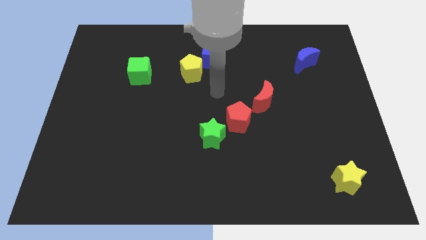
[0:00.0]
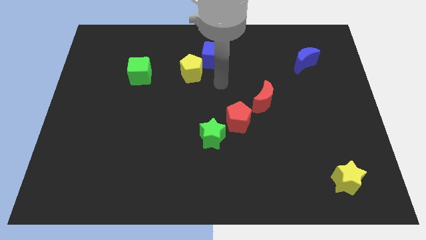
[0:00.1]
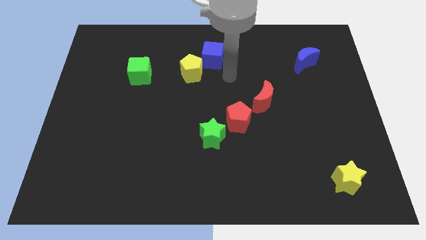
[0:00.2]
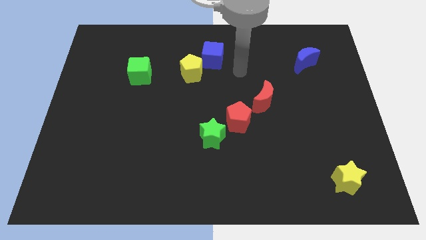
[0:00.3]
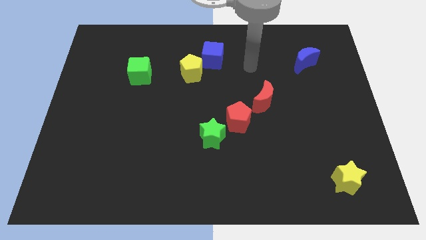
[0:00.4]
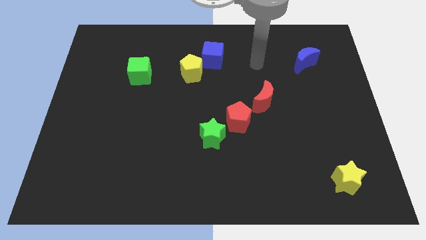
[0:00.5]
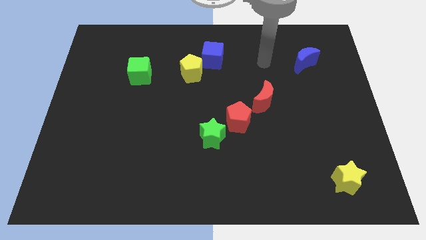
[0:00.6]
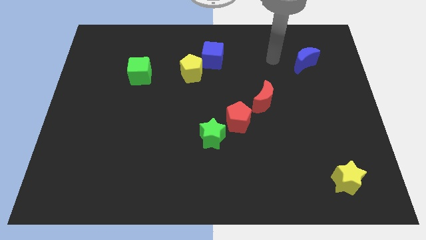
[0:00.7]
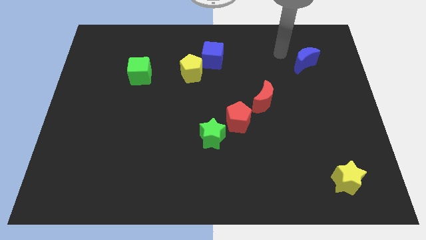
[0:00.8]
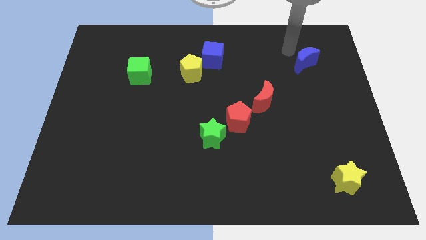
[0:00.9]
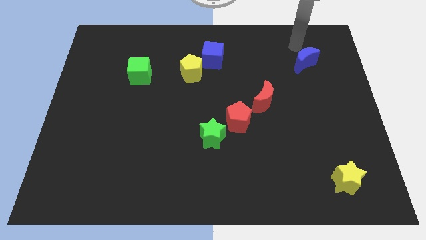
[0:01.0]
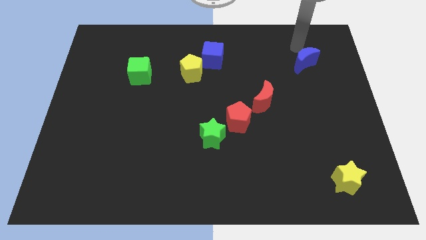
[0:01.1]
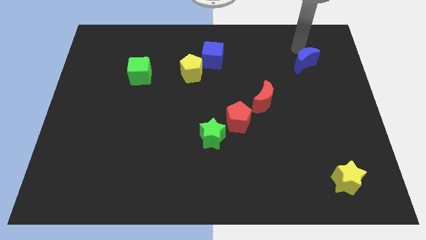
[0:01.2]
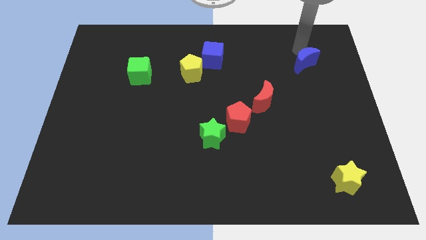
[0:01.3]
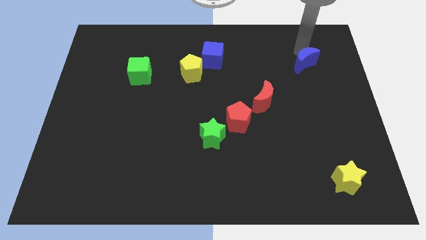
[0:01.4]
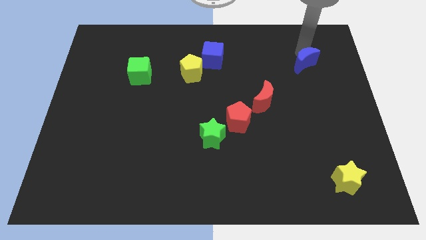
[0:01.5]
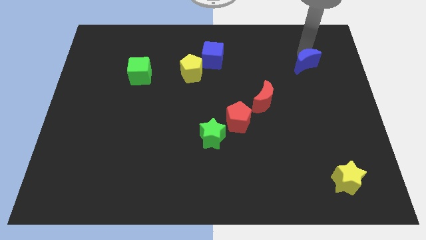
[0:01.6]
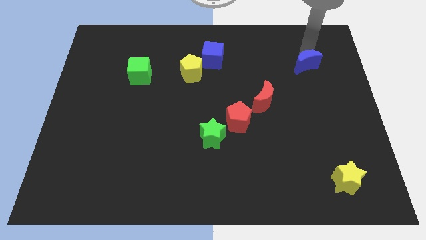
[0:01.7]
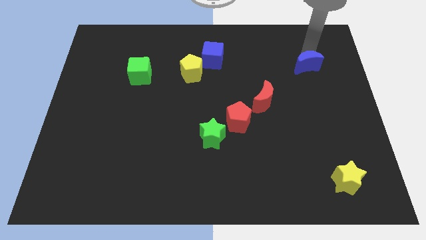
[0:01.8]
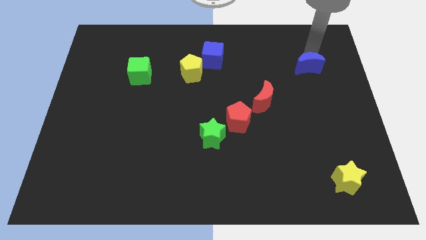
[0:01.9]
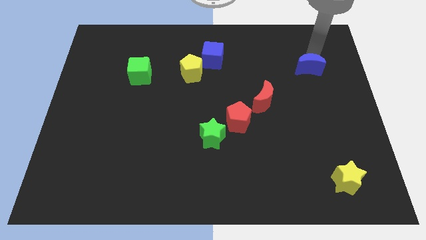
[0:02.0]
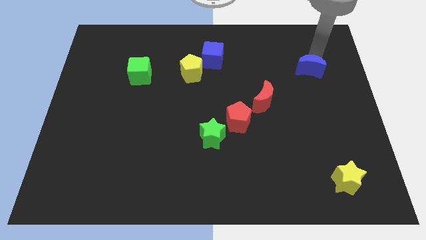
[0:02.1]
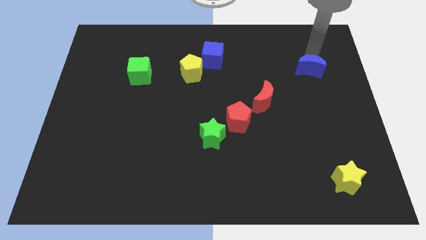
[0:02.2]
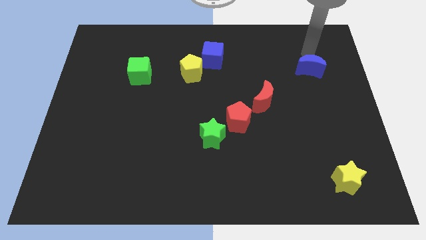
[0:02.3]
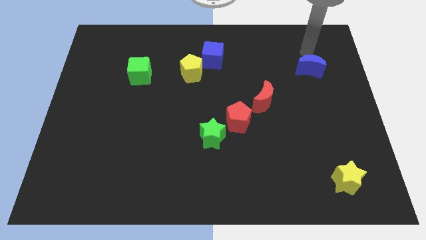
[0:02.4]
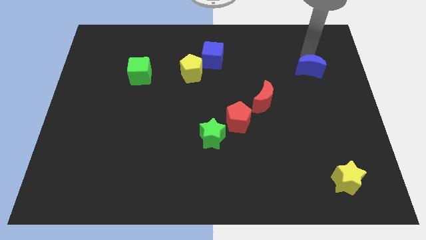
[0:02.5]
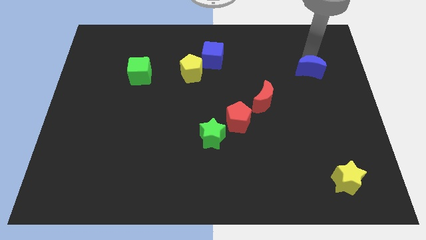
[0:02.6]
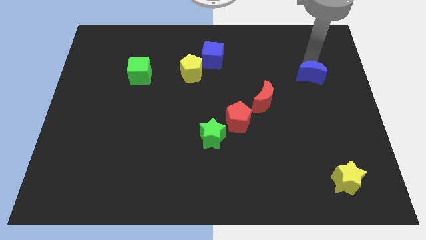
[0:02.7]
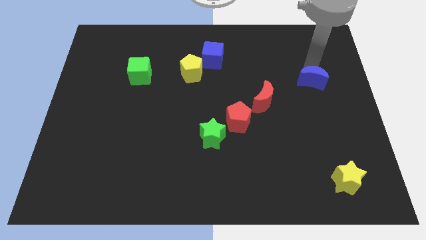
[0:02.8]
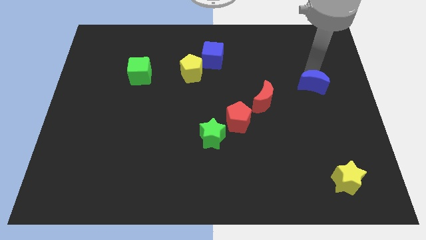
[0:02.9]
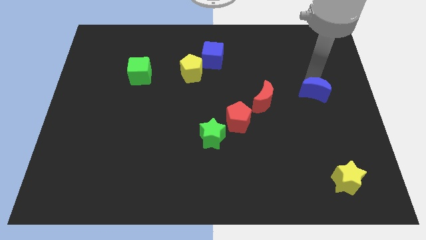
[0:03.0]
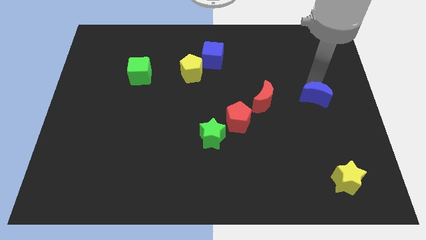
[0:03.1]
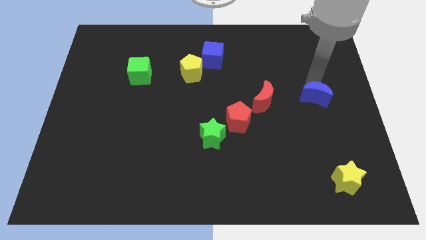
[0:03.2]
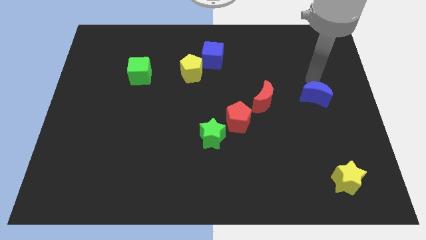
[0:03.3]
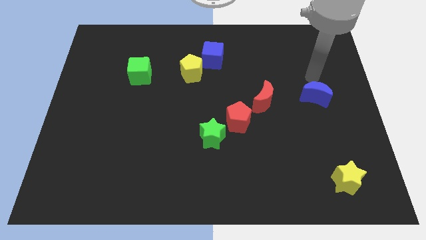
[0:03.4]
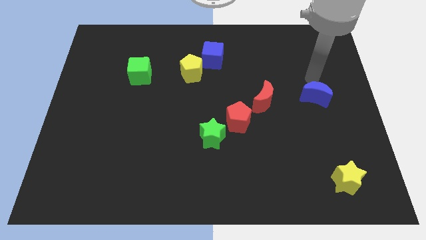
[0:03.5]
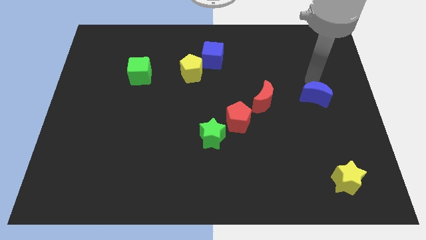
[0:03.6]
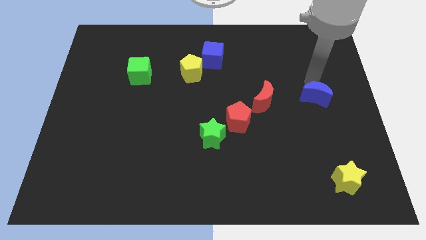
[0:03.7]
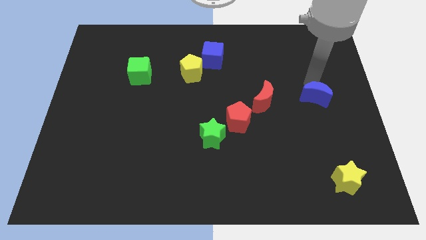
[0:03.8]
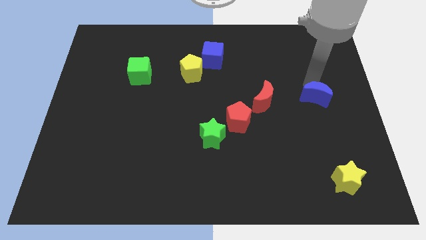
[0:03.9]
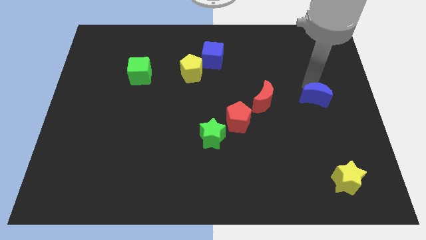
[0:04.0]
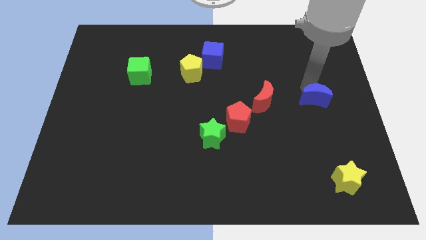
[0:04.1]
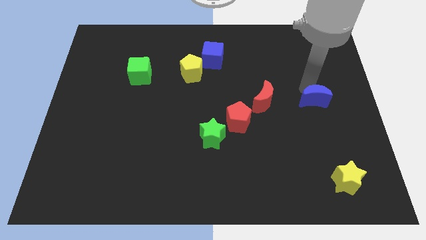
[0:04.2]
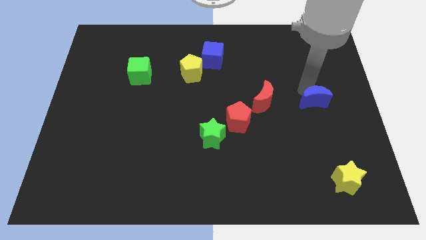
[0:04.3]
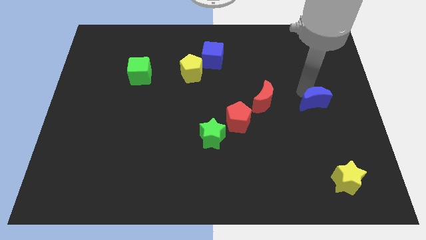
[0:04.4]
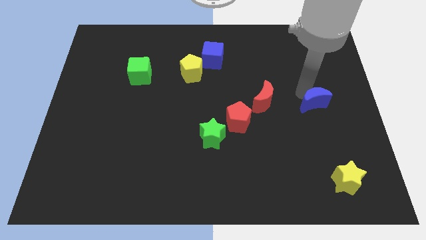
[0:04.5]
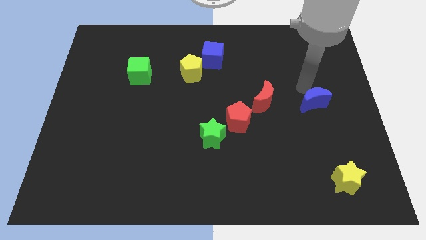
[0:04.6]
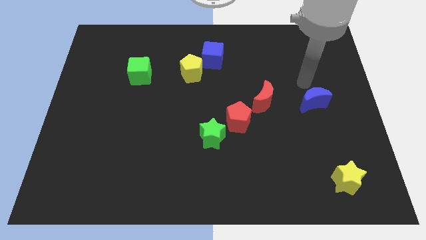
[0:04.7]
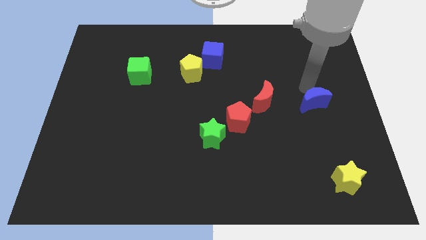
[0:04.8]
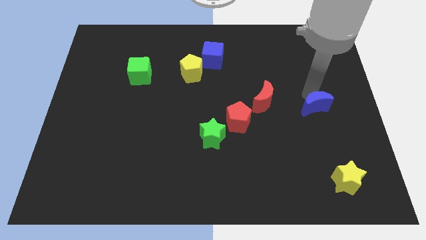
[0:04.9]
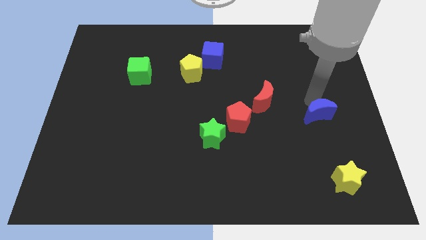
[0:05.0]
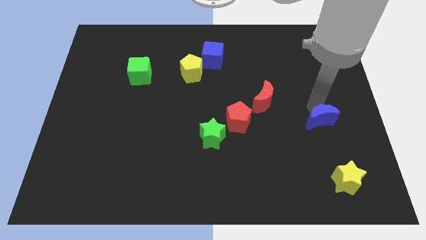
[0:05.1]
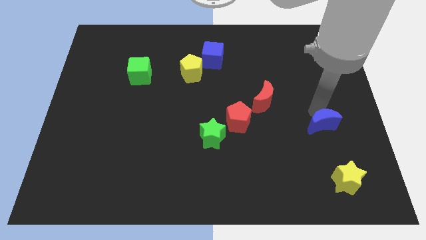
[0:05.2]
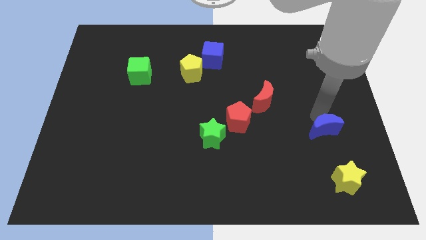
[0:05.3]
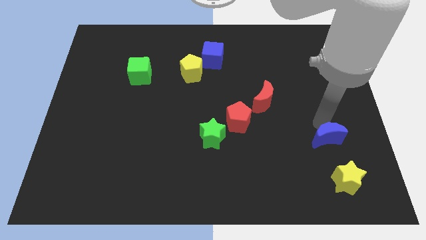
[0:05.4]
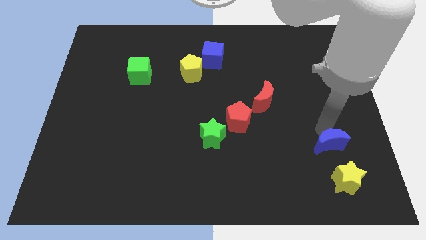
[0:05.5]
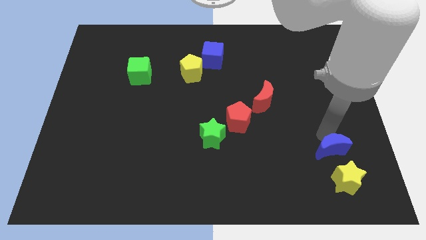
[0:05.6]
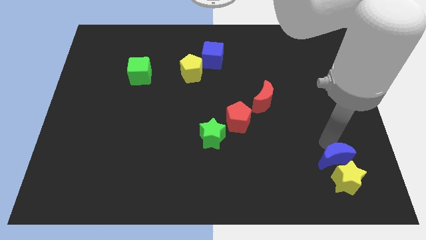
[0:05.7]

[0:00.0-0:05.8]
slide the blue moon close to the yellow star

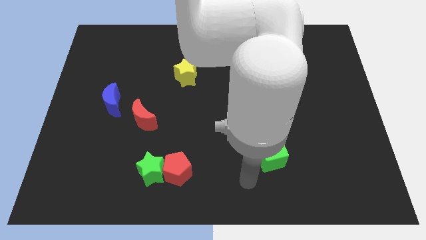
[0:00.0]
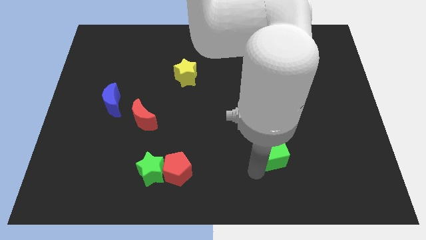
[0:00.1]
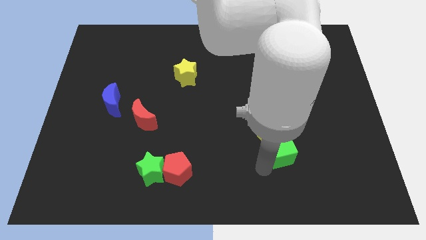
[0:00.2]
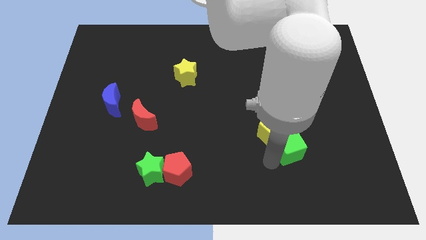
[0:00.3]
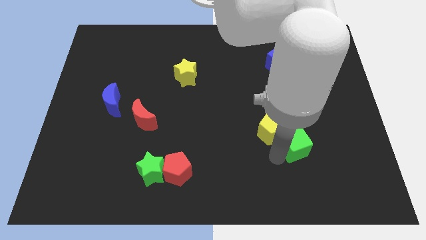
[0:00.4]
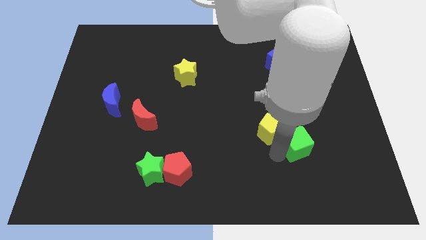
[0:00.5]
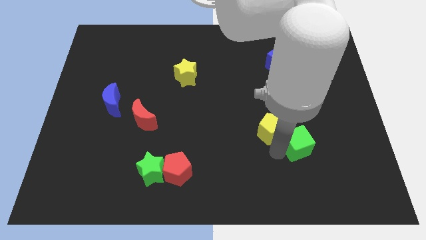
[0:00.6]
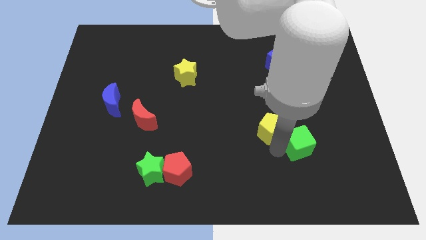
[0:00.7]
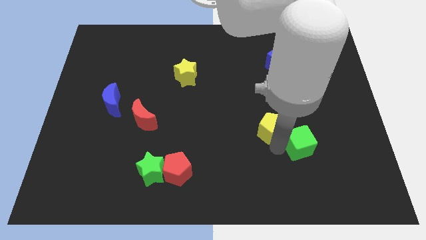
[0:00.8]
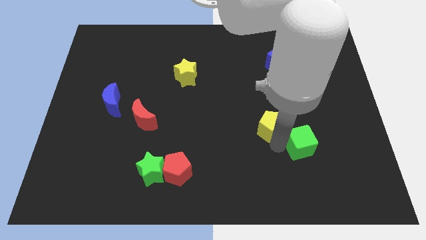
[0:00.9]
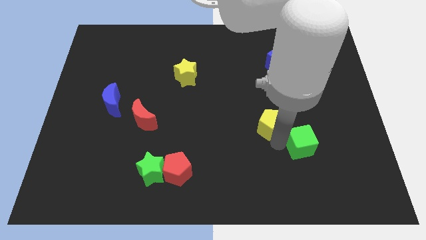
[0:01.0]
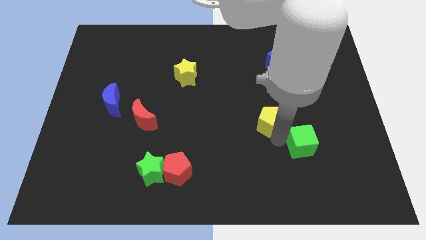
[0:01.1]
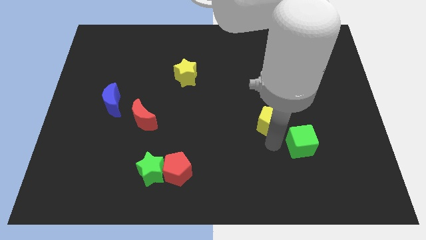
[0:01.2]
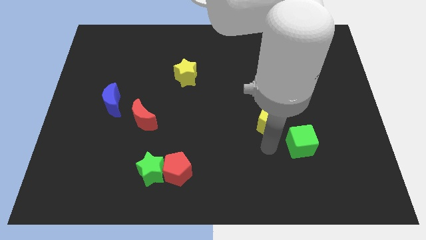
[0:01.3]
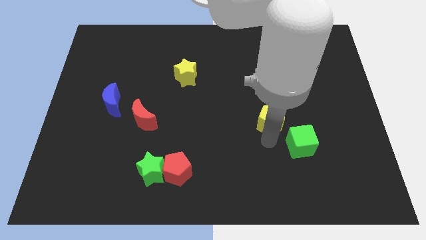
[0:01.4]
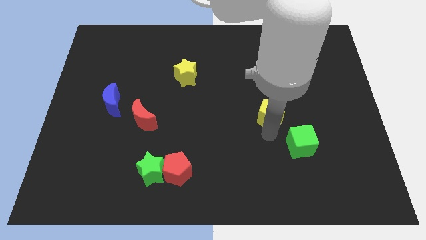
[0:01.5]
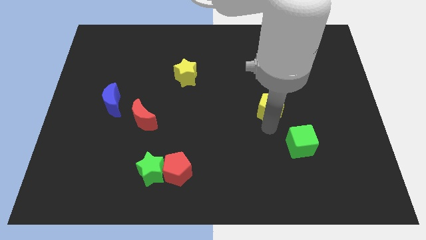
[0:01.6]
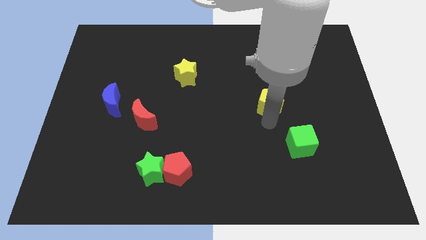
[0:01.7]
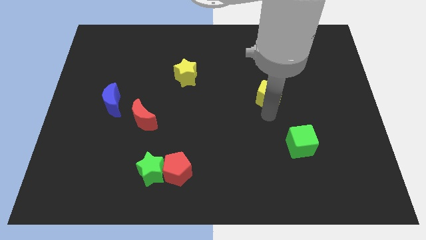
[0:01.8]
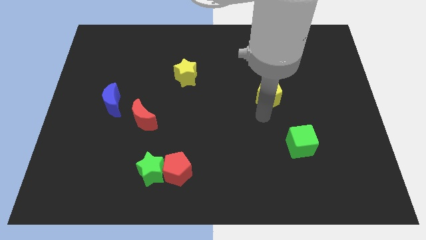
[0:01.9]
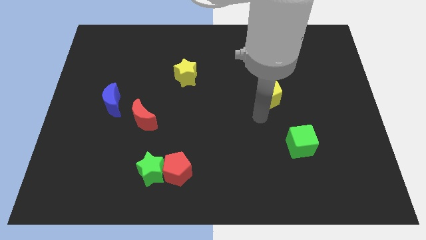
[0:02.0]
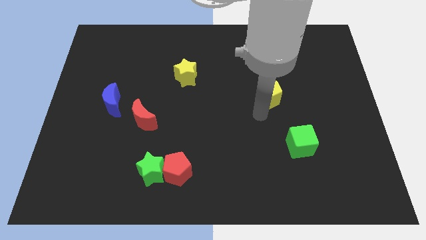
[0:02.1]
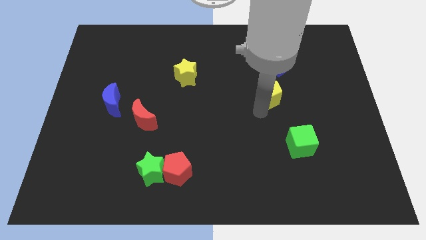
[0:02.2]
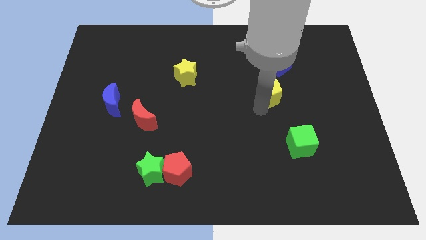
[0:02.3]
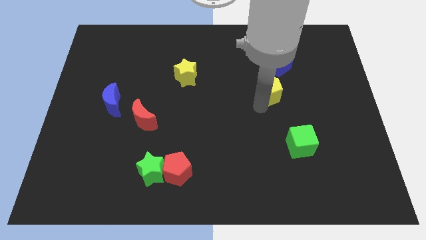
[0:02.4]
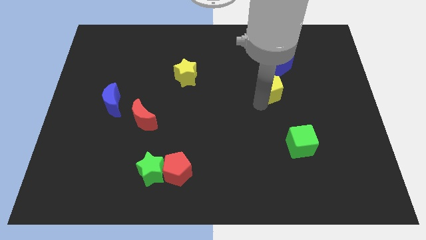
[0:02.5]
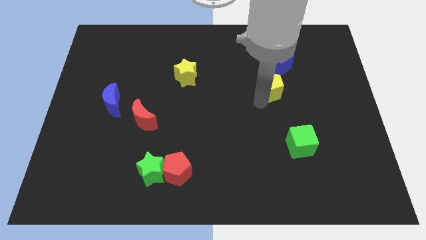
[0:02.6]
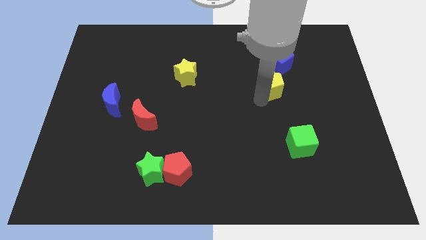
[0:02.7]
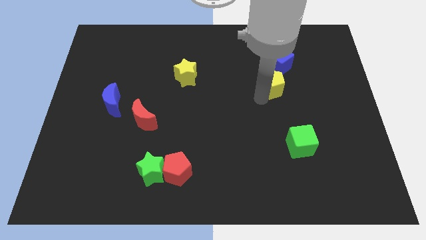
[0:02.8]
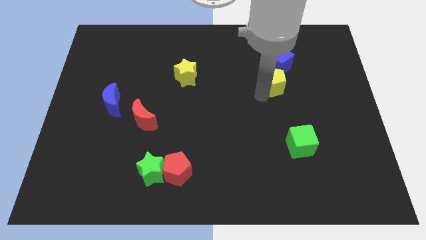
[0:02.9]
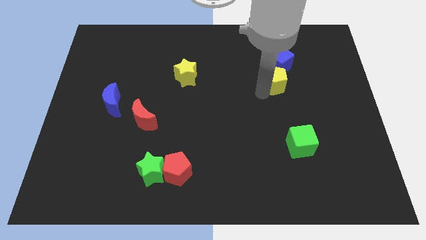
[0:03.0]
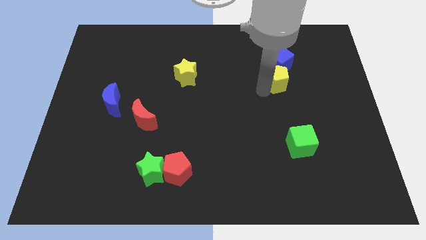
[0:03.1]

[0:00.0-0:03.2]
move the yellow pentagon to the blue cube
